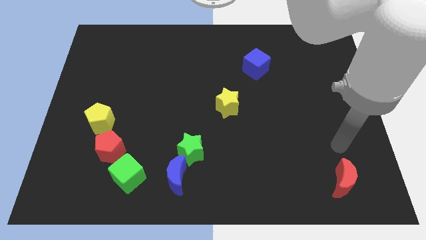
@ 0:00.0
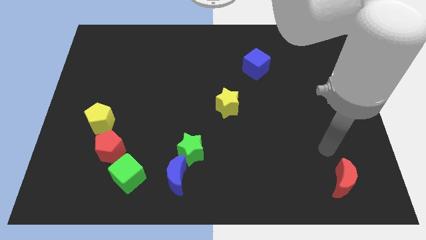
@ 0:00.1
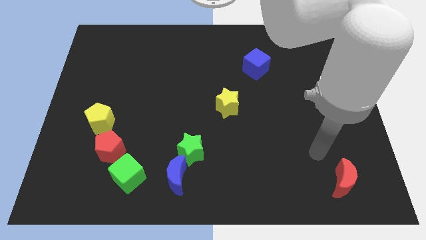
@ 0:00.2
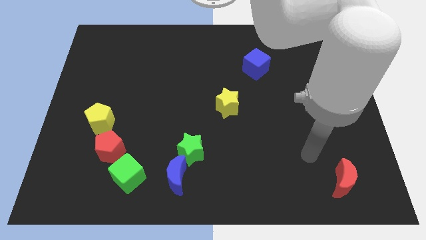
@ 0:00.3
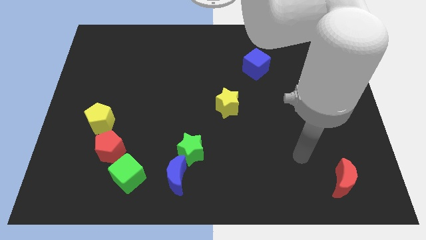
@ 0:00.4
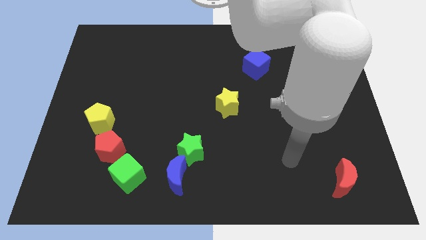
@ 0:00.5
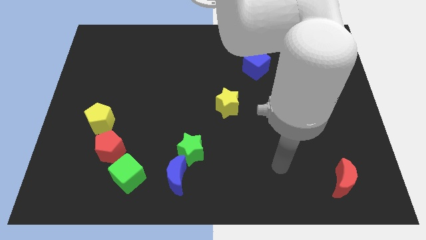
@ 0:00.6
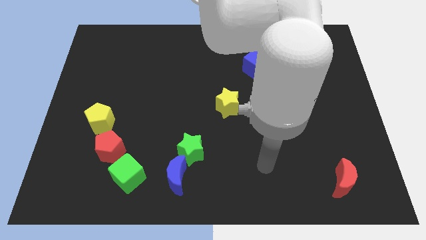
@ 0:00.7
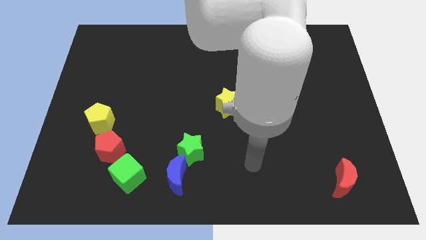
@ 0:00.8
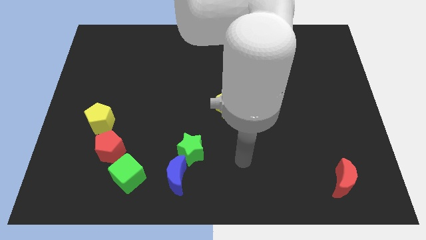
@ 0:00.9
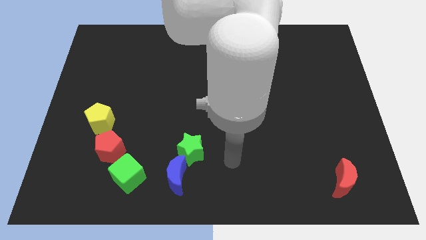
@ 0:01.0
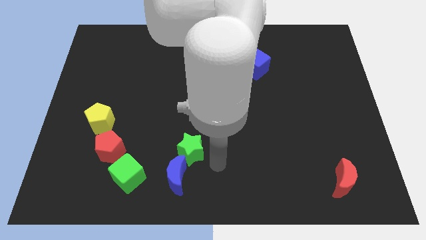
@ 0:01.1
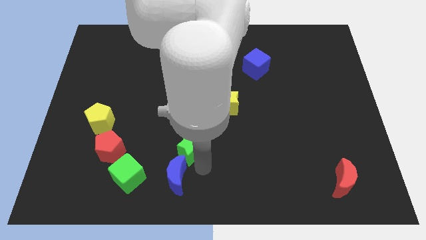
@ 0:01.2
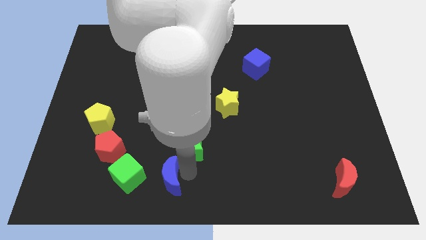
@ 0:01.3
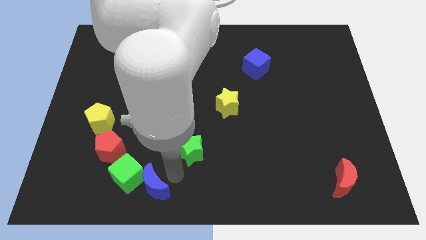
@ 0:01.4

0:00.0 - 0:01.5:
pull the green star apart from the blue moon

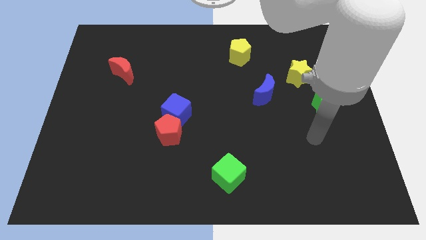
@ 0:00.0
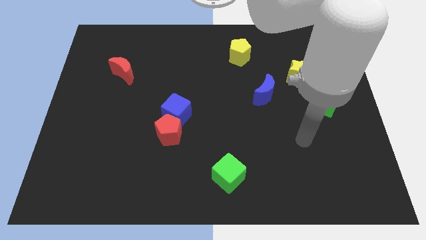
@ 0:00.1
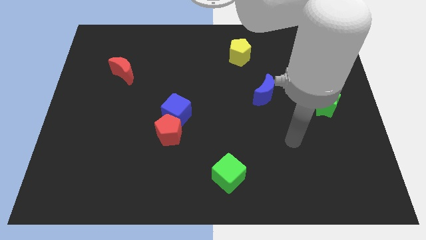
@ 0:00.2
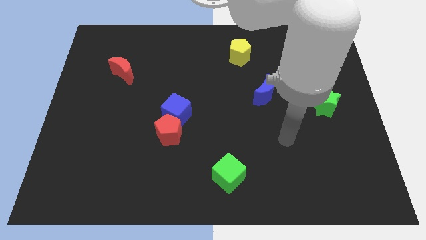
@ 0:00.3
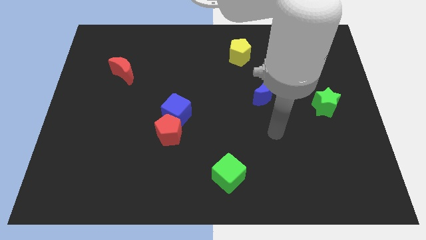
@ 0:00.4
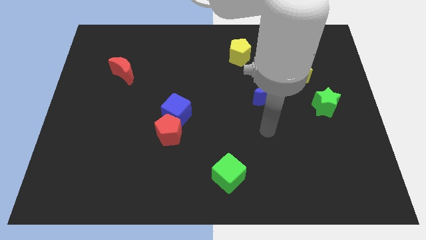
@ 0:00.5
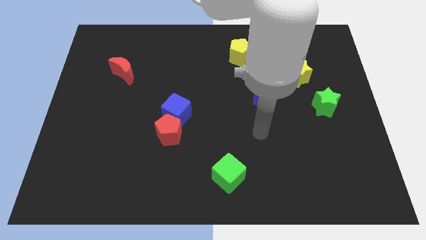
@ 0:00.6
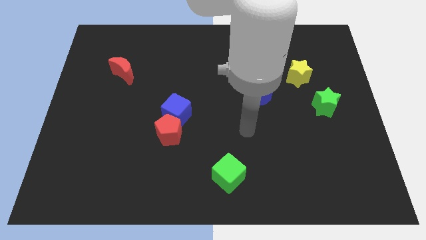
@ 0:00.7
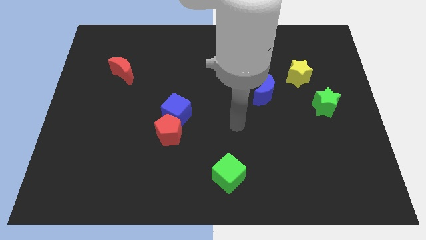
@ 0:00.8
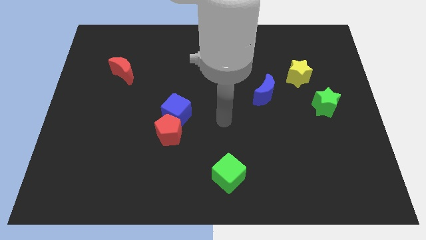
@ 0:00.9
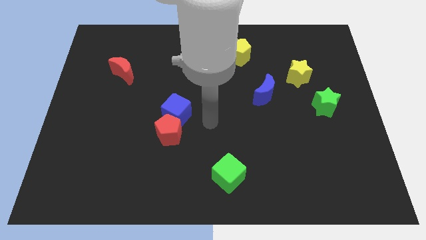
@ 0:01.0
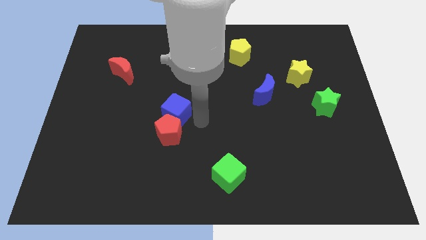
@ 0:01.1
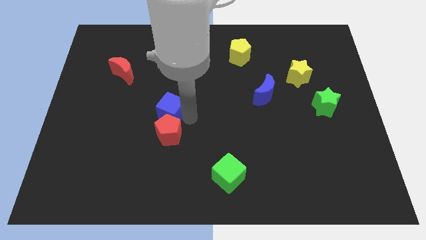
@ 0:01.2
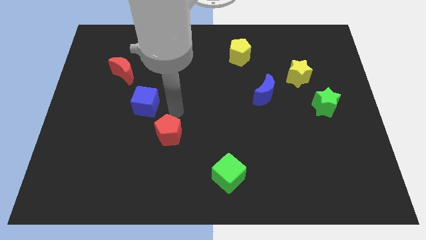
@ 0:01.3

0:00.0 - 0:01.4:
move the red pentagon away from the blue cube

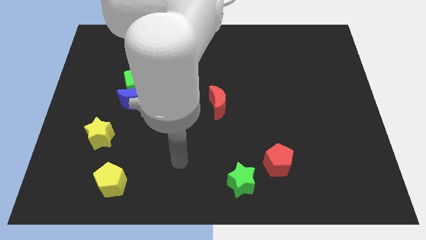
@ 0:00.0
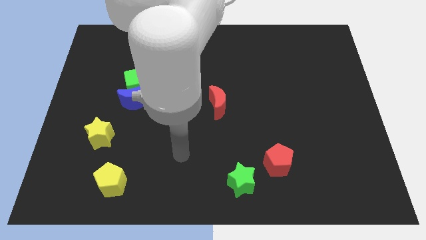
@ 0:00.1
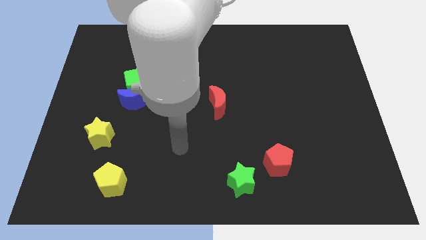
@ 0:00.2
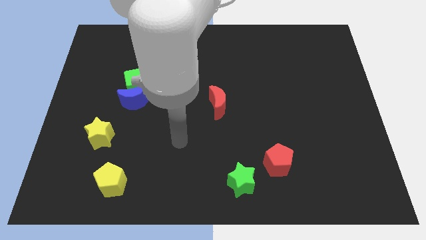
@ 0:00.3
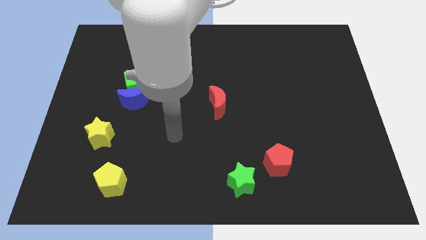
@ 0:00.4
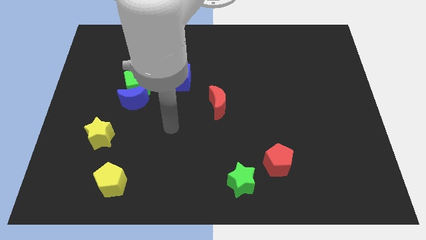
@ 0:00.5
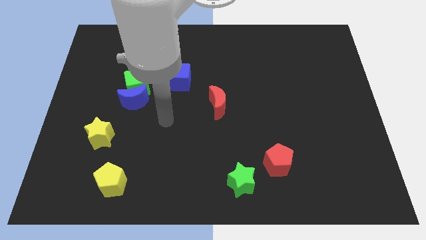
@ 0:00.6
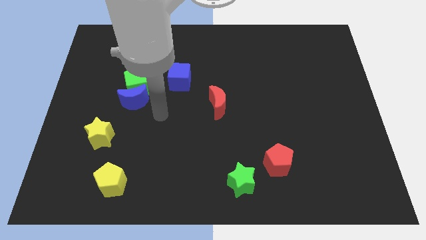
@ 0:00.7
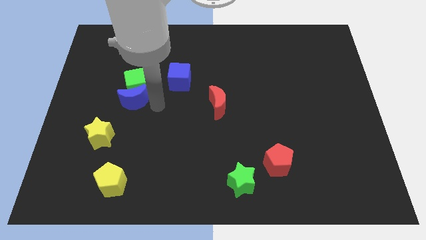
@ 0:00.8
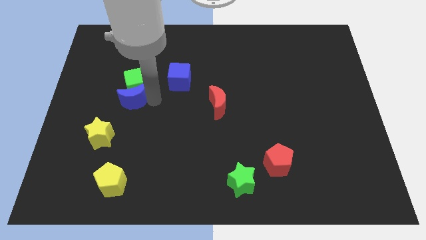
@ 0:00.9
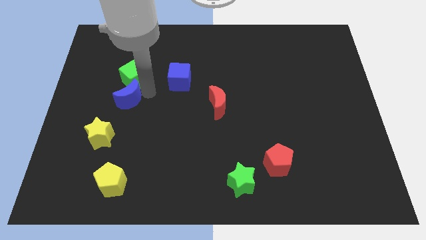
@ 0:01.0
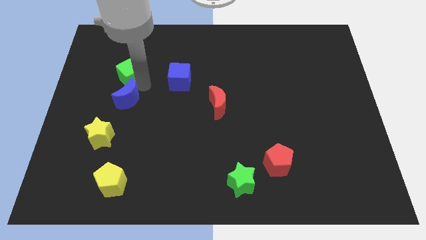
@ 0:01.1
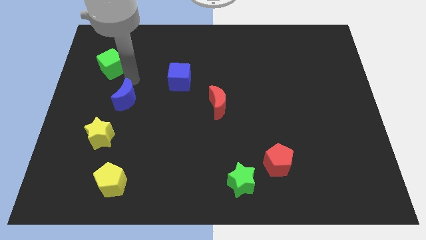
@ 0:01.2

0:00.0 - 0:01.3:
separate the blue moon from the green cube

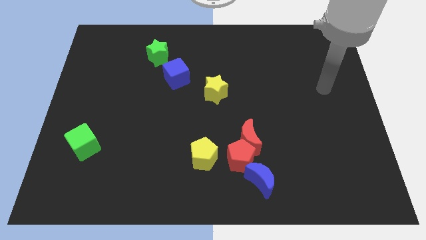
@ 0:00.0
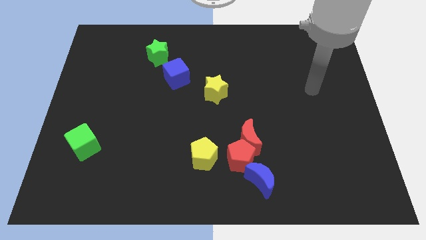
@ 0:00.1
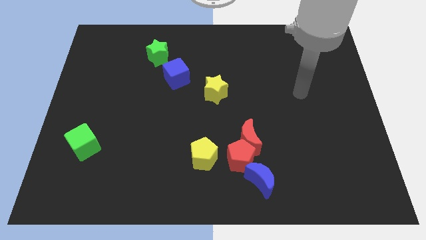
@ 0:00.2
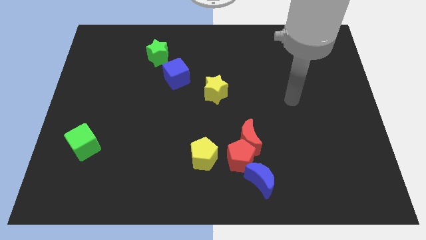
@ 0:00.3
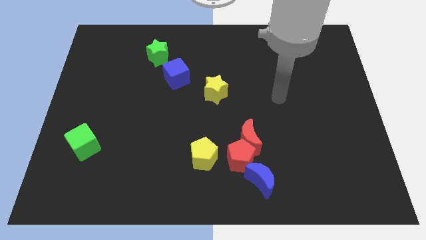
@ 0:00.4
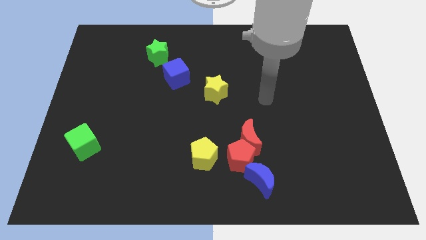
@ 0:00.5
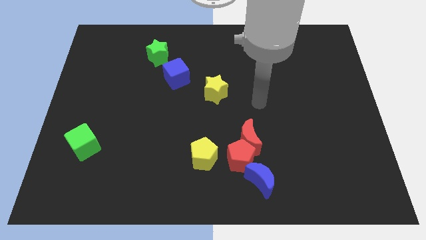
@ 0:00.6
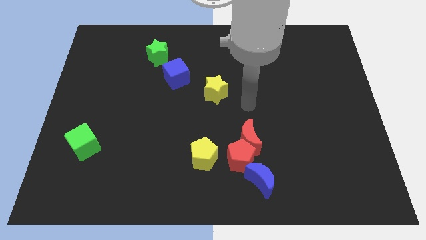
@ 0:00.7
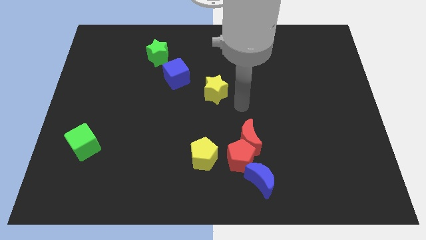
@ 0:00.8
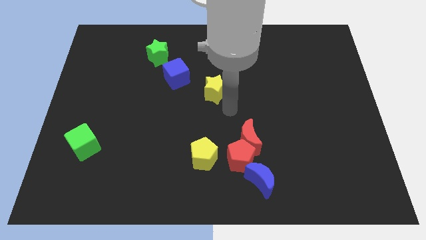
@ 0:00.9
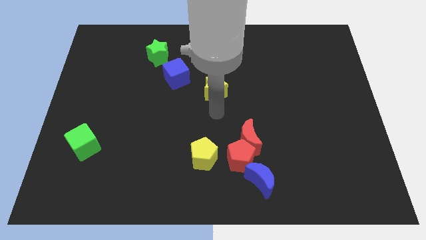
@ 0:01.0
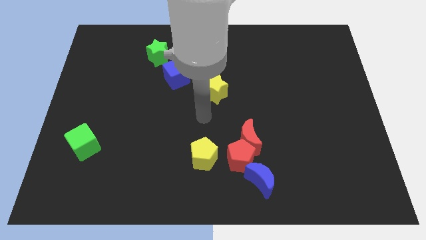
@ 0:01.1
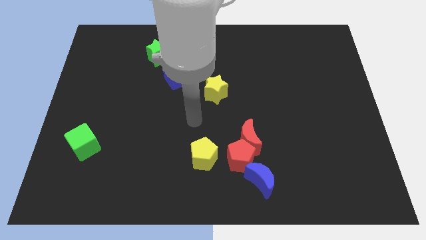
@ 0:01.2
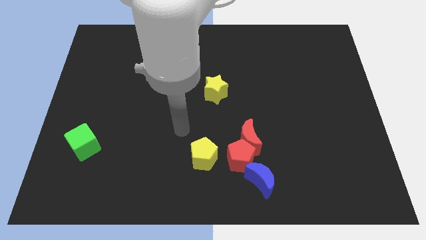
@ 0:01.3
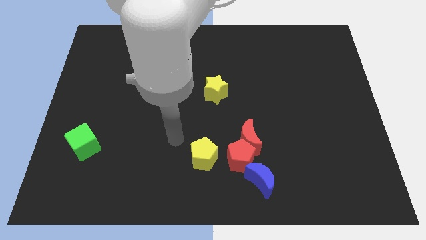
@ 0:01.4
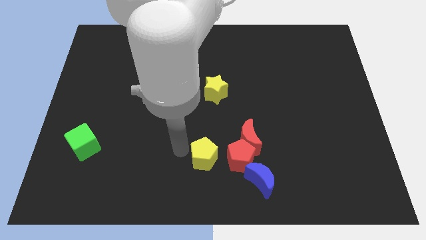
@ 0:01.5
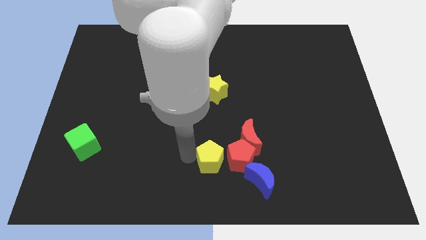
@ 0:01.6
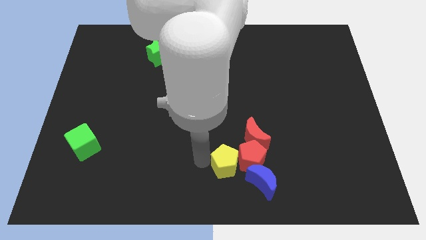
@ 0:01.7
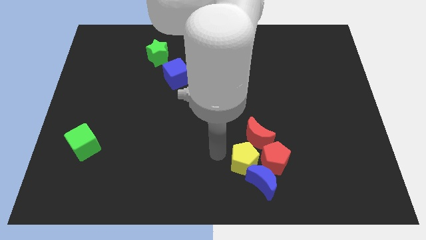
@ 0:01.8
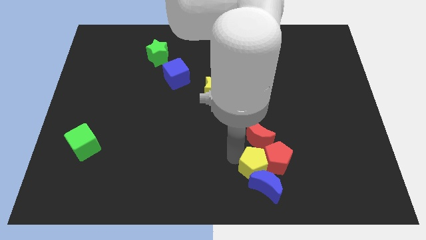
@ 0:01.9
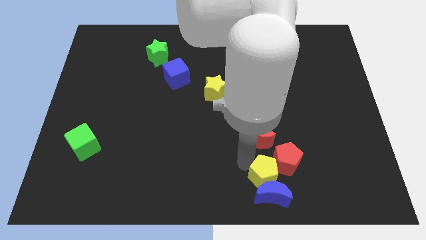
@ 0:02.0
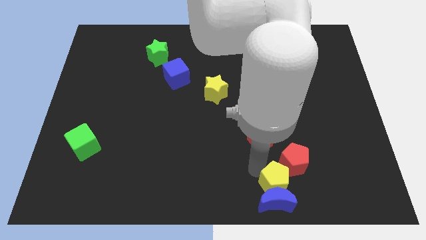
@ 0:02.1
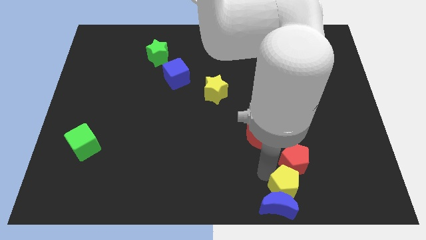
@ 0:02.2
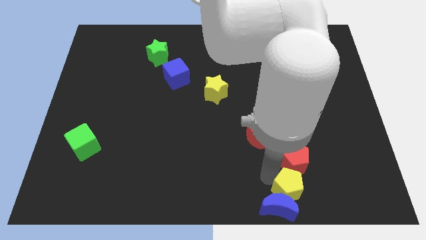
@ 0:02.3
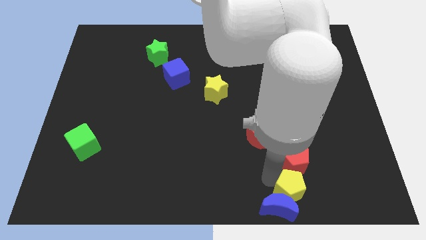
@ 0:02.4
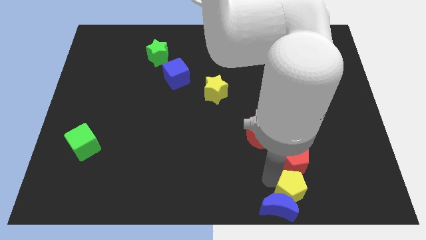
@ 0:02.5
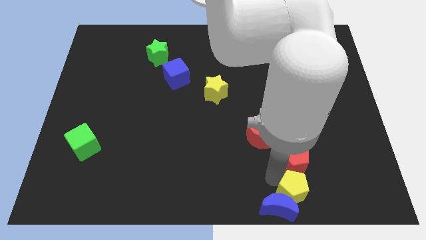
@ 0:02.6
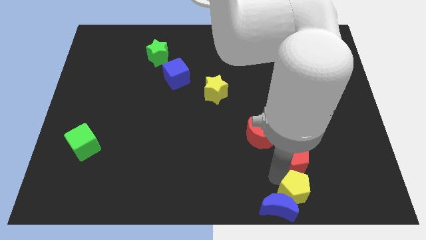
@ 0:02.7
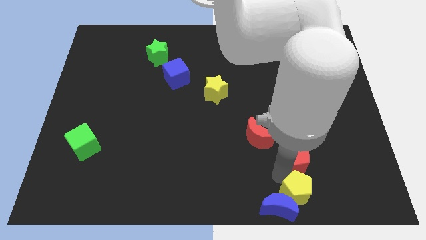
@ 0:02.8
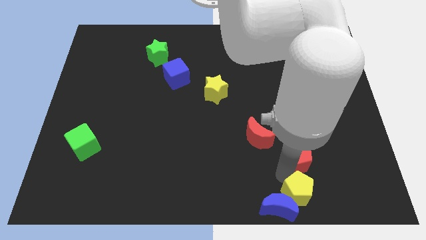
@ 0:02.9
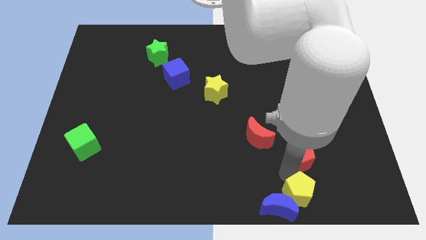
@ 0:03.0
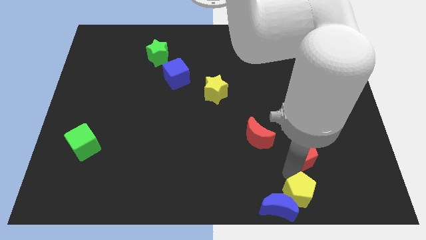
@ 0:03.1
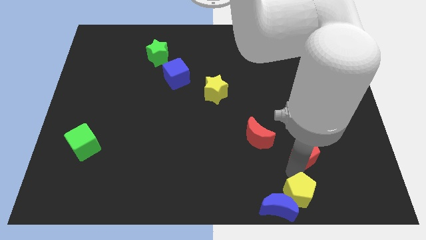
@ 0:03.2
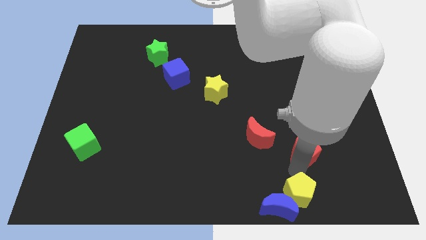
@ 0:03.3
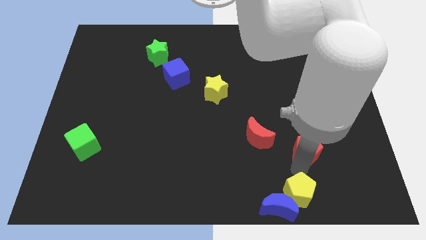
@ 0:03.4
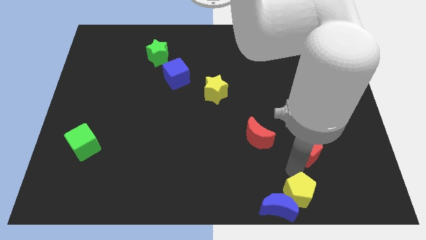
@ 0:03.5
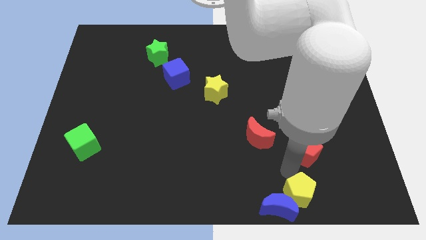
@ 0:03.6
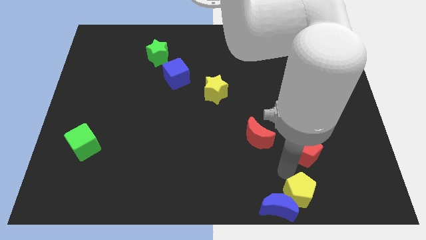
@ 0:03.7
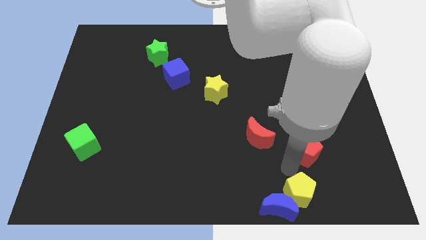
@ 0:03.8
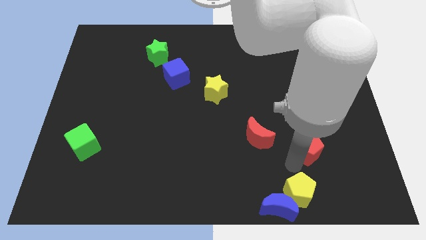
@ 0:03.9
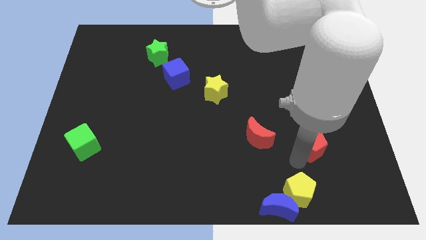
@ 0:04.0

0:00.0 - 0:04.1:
separate the red pentagon from the red moon, blue moon, and yellow pentagon

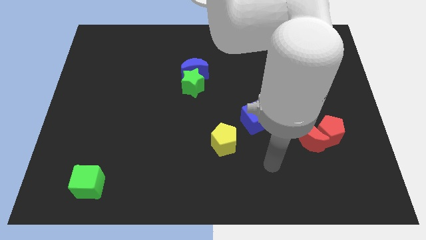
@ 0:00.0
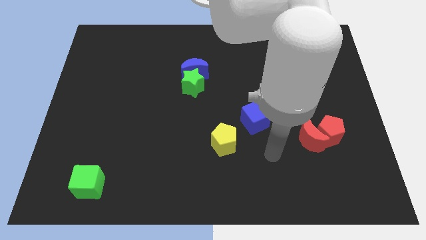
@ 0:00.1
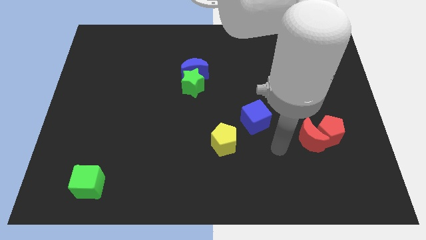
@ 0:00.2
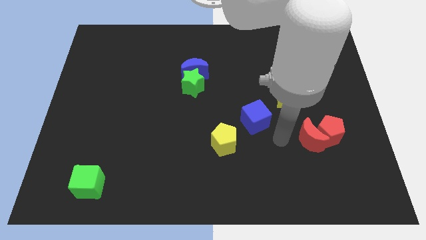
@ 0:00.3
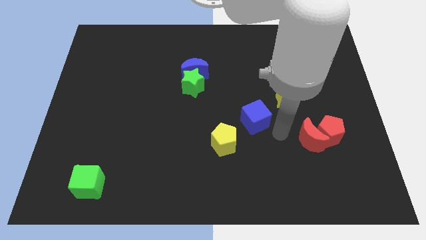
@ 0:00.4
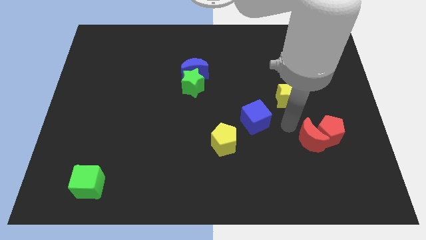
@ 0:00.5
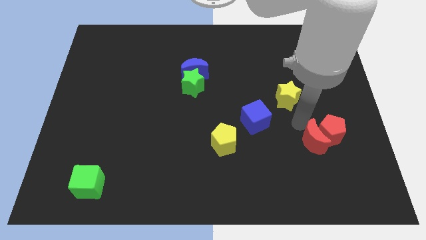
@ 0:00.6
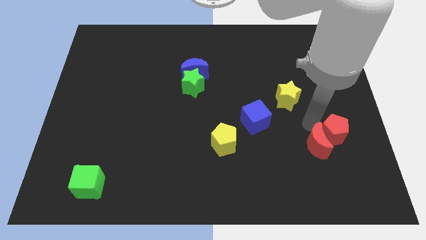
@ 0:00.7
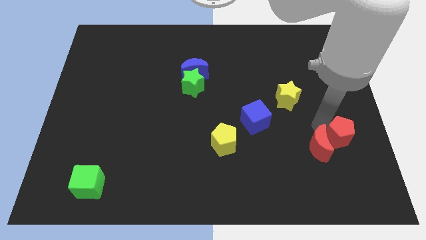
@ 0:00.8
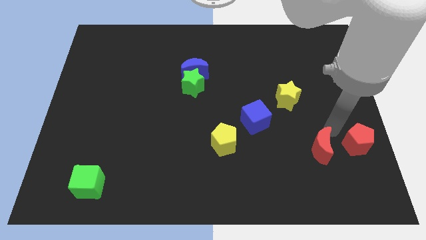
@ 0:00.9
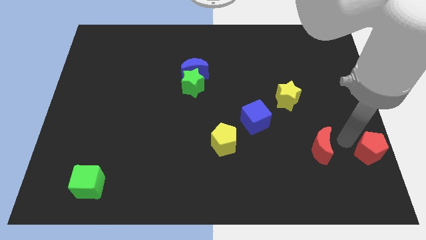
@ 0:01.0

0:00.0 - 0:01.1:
move the red moon away from the red pentagon
